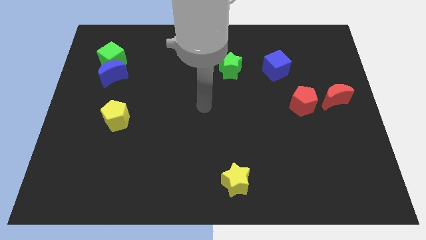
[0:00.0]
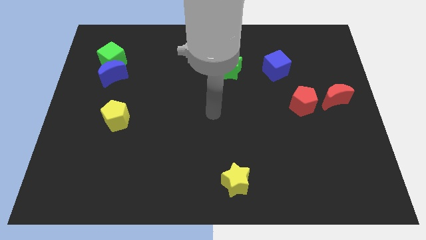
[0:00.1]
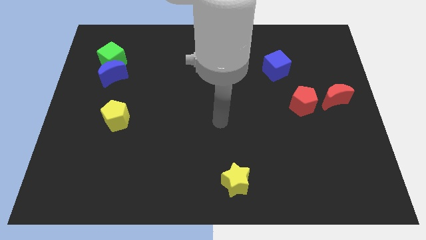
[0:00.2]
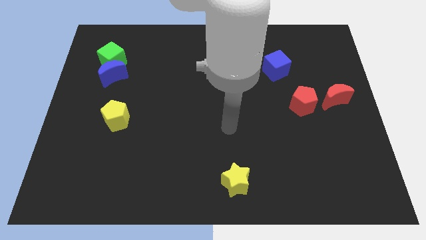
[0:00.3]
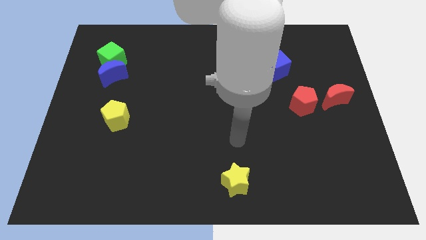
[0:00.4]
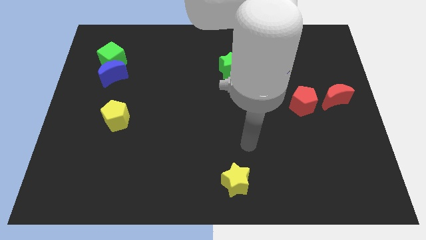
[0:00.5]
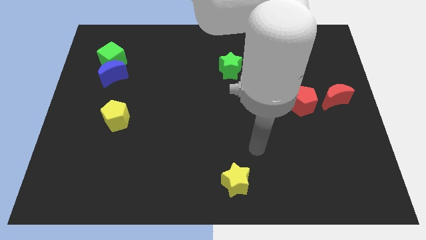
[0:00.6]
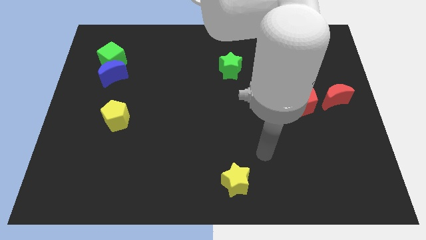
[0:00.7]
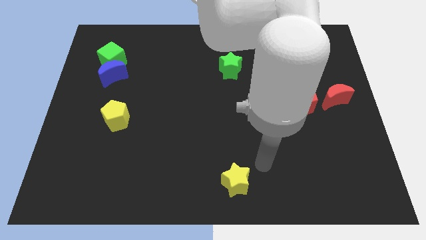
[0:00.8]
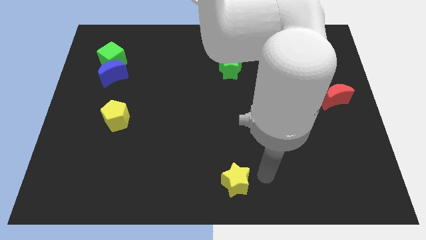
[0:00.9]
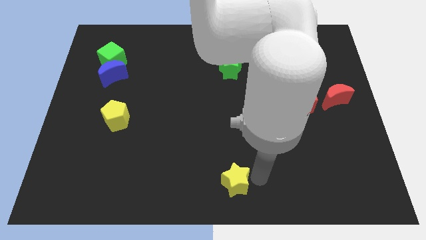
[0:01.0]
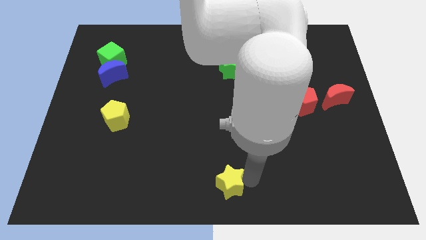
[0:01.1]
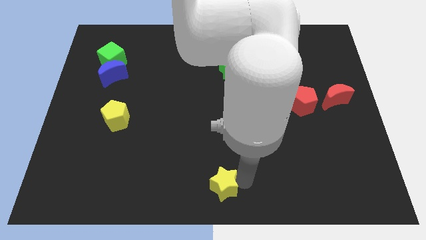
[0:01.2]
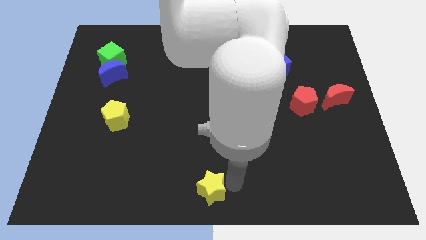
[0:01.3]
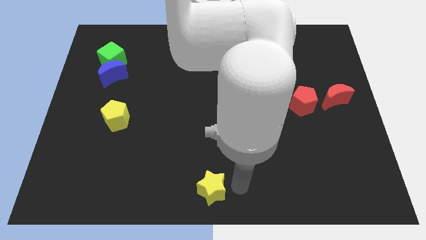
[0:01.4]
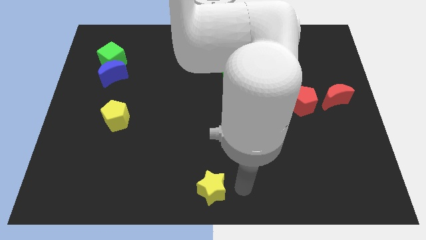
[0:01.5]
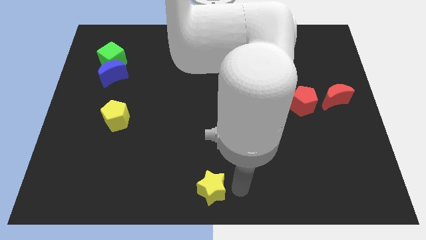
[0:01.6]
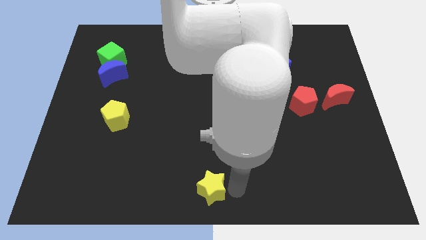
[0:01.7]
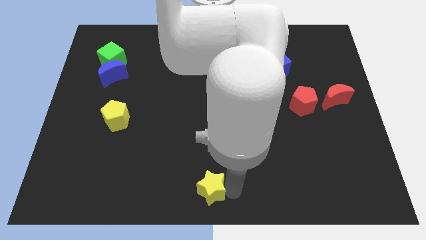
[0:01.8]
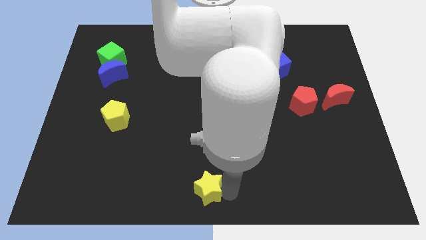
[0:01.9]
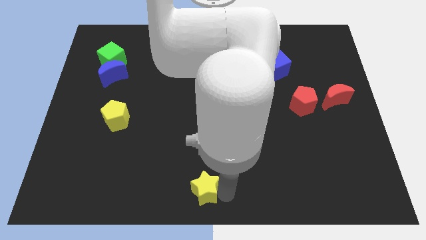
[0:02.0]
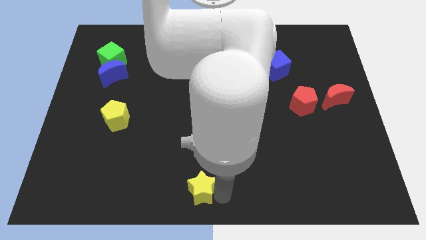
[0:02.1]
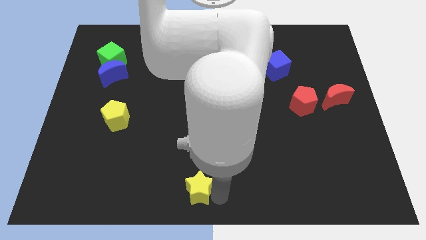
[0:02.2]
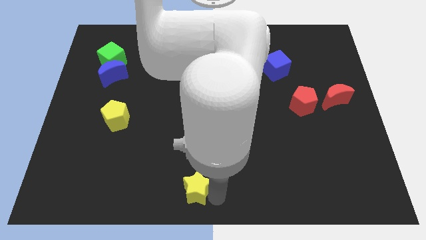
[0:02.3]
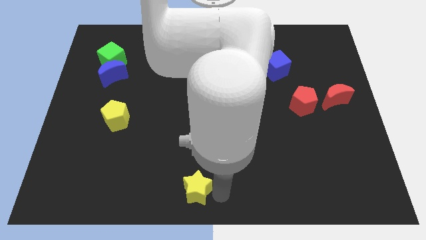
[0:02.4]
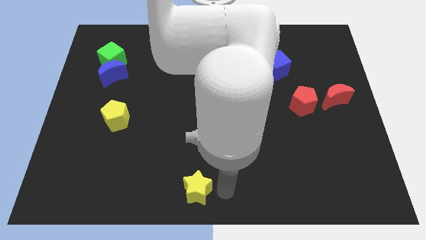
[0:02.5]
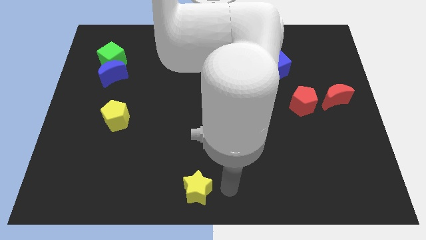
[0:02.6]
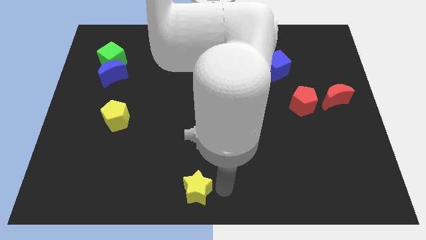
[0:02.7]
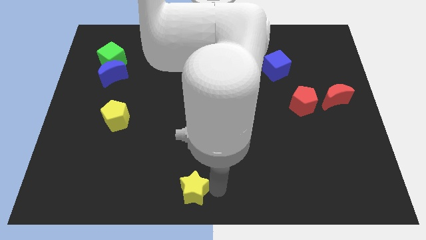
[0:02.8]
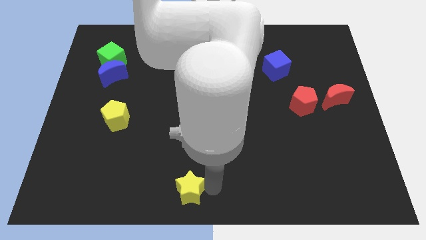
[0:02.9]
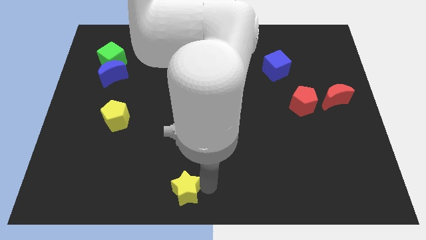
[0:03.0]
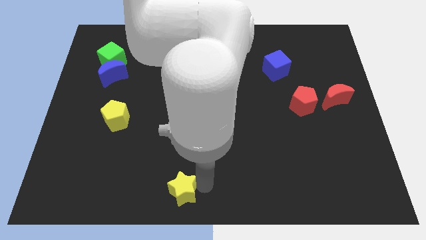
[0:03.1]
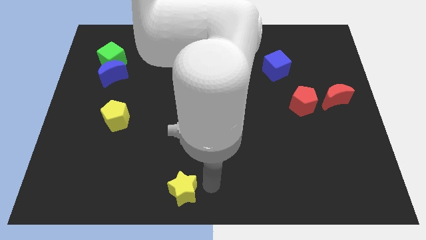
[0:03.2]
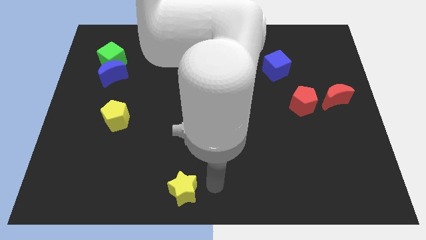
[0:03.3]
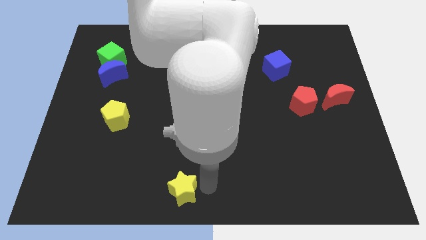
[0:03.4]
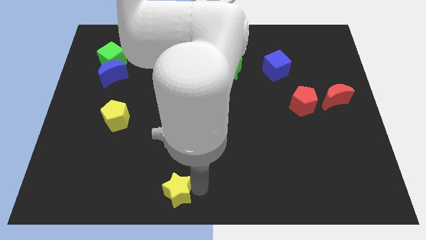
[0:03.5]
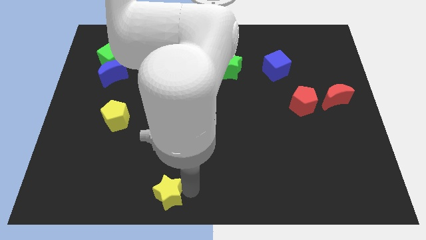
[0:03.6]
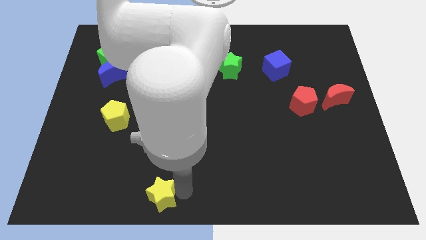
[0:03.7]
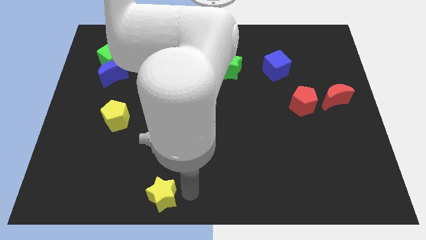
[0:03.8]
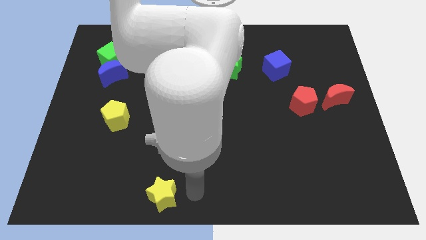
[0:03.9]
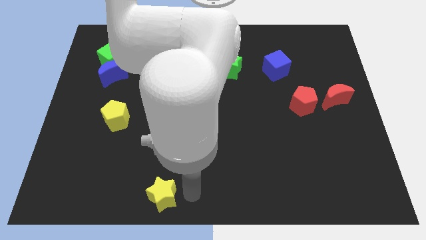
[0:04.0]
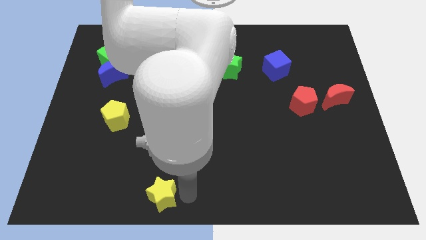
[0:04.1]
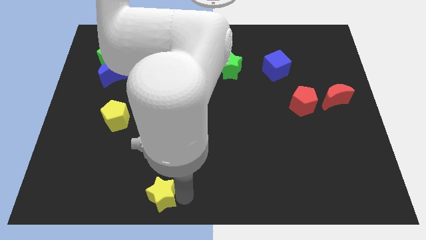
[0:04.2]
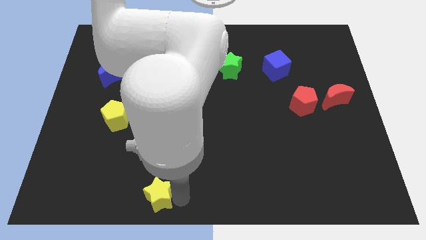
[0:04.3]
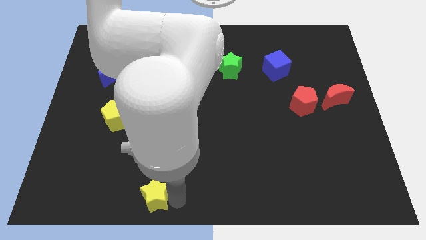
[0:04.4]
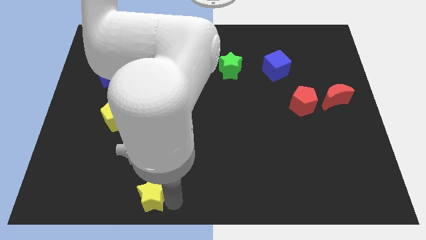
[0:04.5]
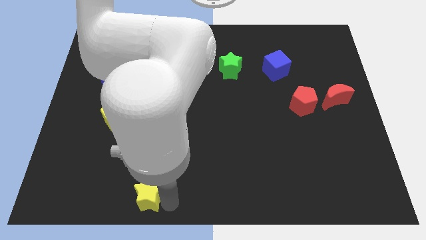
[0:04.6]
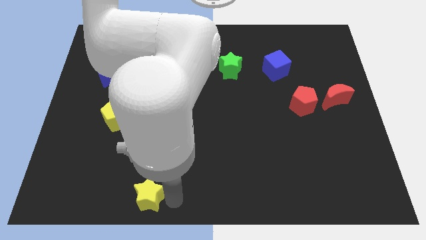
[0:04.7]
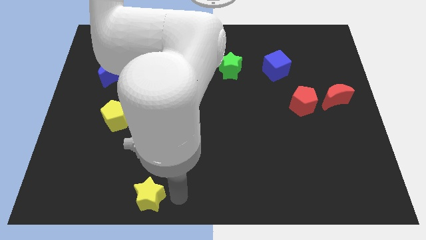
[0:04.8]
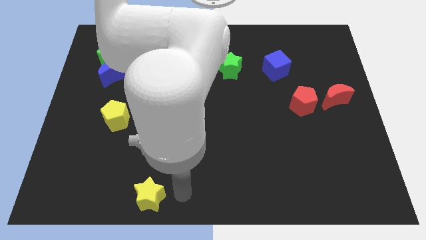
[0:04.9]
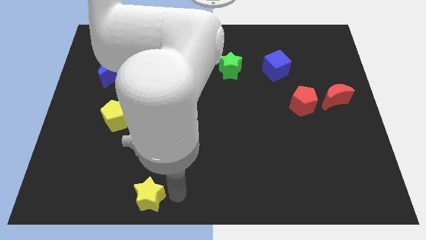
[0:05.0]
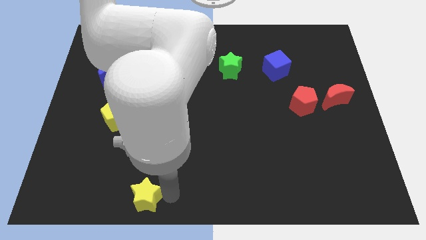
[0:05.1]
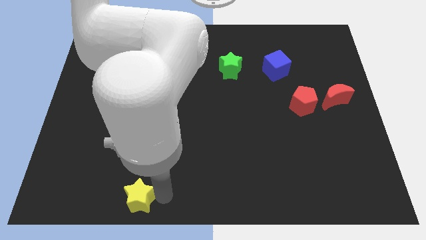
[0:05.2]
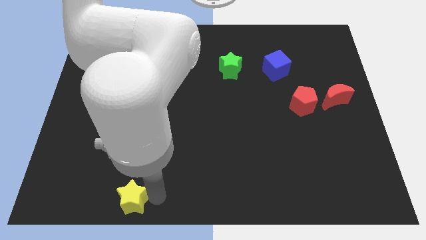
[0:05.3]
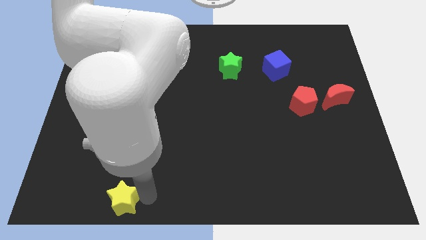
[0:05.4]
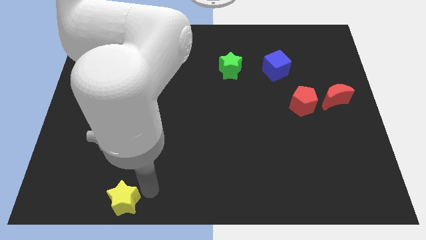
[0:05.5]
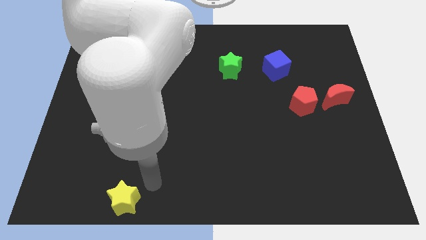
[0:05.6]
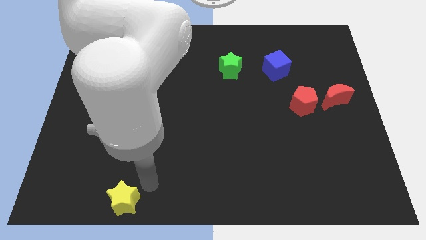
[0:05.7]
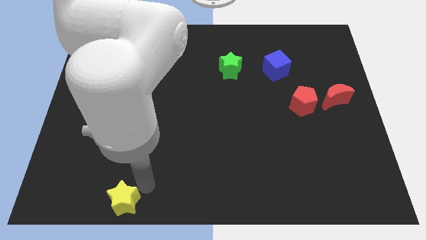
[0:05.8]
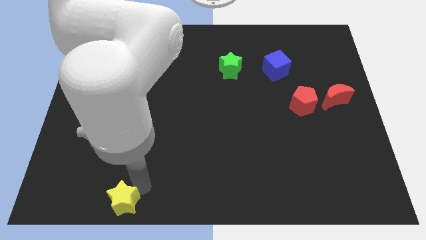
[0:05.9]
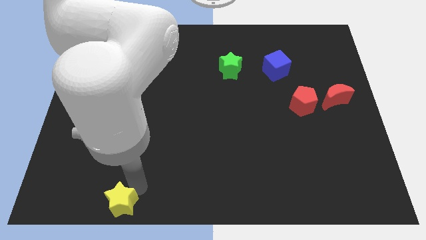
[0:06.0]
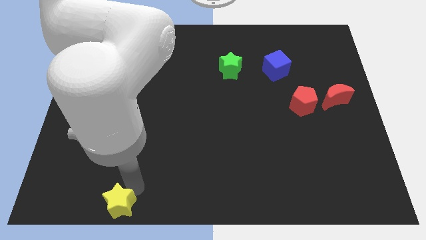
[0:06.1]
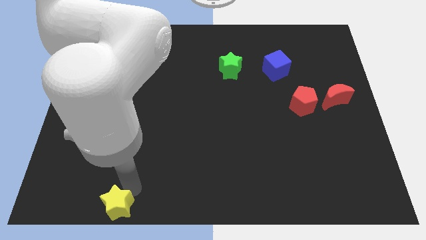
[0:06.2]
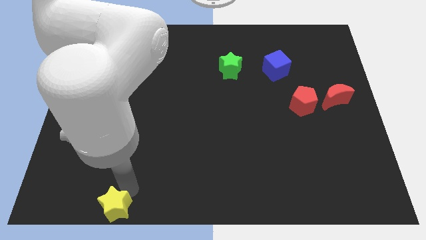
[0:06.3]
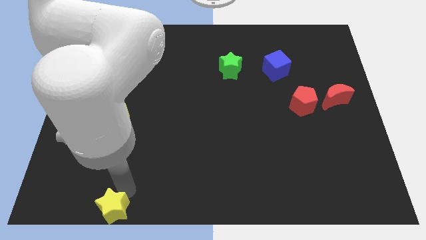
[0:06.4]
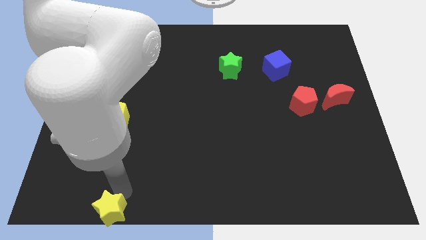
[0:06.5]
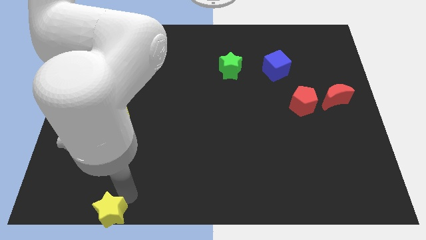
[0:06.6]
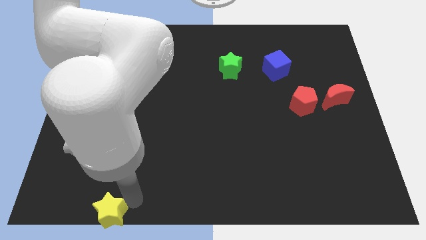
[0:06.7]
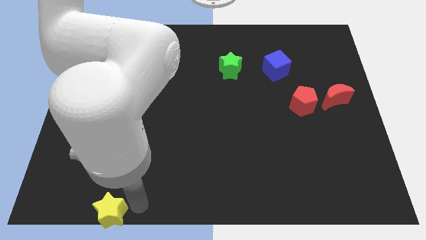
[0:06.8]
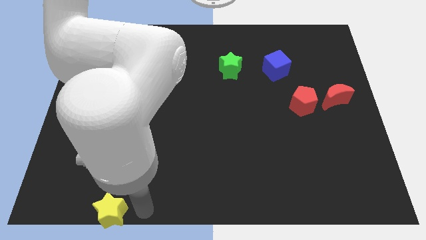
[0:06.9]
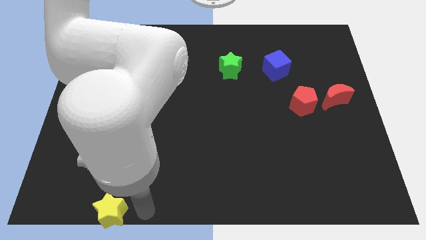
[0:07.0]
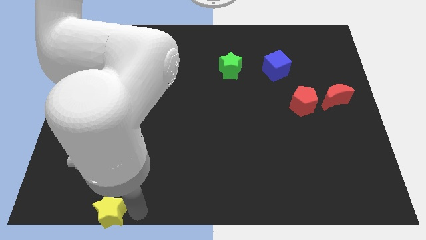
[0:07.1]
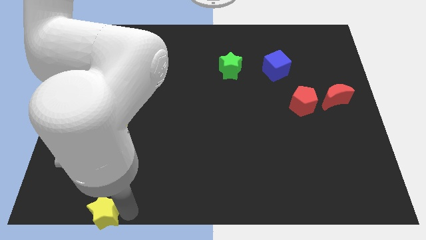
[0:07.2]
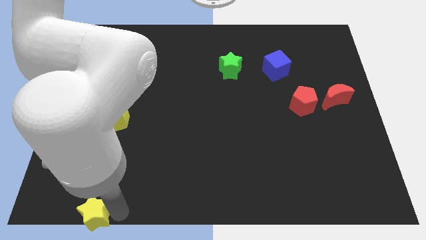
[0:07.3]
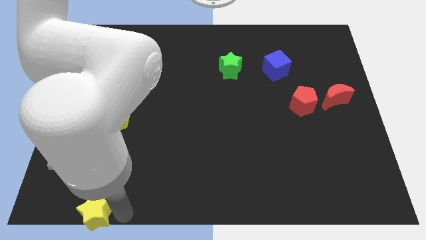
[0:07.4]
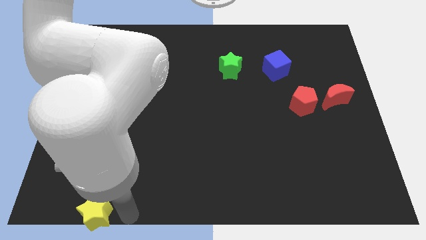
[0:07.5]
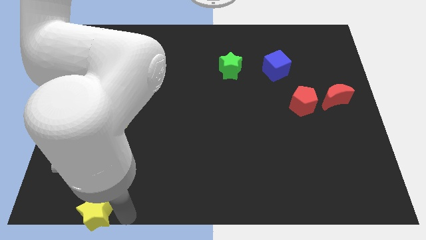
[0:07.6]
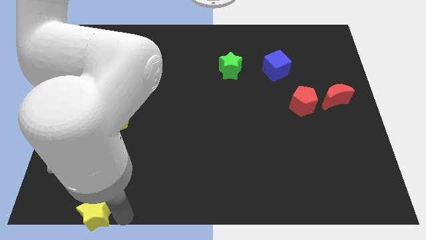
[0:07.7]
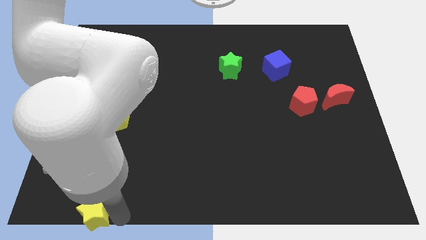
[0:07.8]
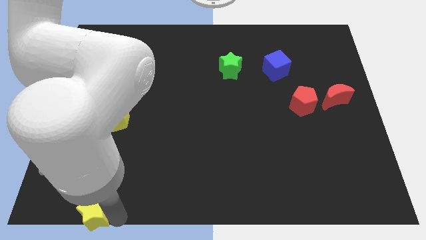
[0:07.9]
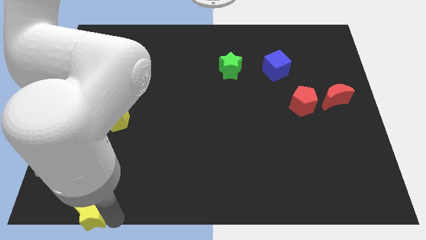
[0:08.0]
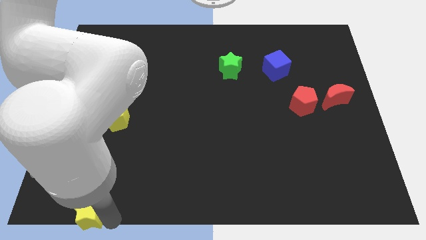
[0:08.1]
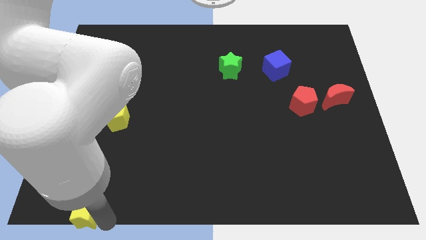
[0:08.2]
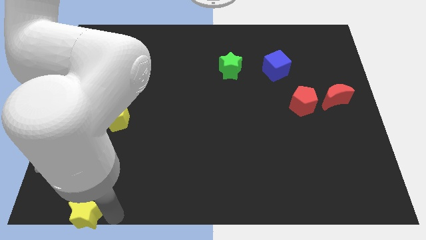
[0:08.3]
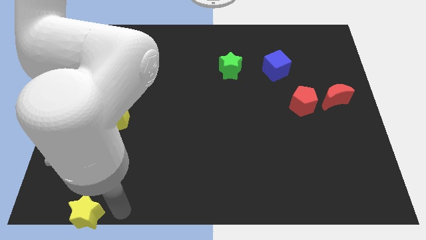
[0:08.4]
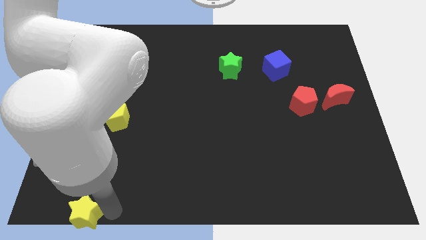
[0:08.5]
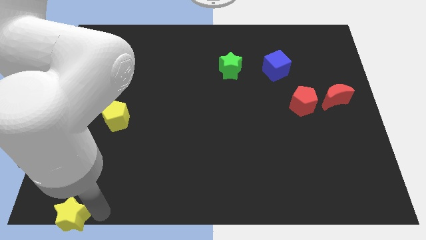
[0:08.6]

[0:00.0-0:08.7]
move the yellow star to the bottom left of the board
